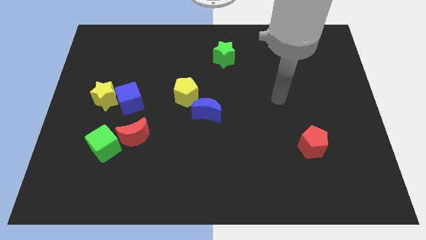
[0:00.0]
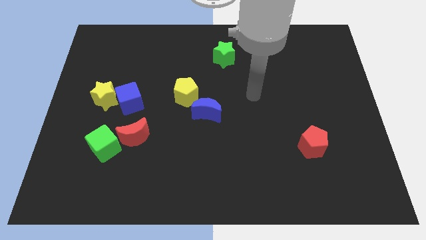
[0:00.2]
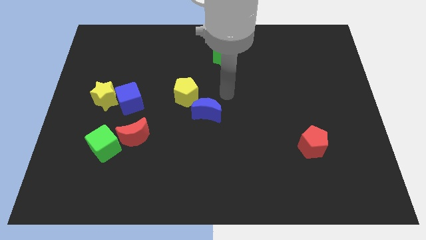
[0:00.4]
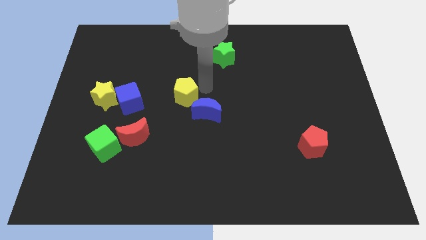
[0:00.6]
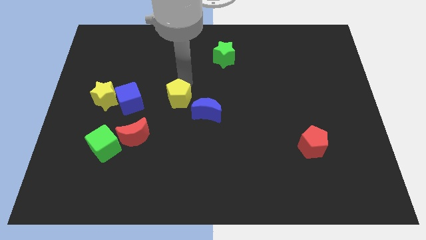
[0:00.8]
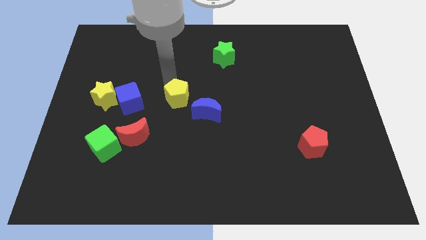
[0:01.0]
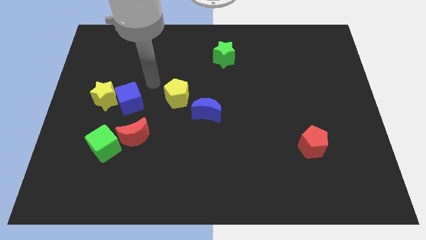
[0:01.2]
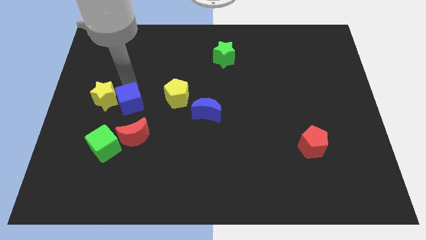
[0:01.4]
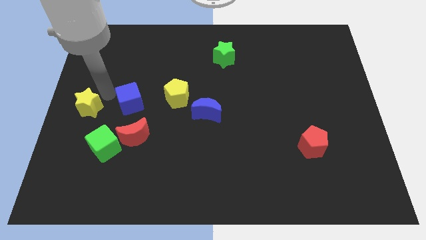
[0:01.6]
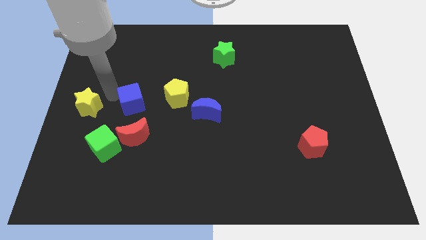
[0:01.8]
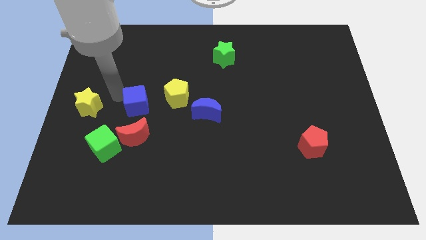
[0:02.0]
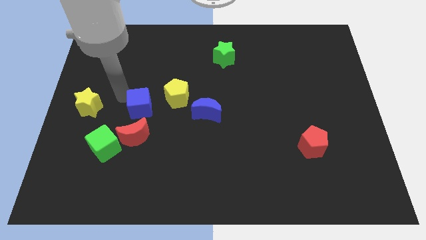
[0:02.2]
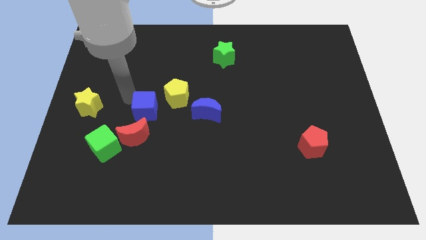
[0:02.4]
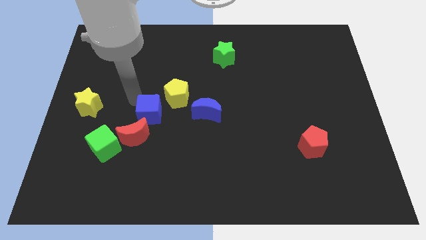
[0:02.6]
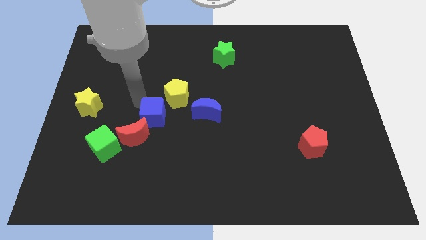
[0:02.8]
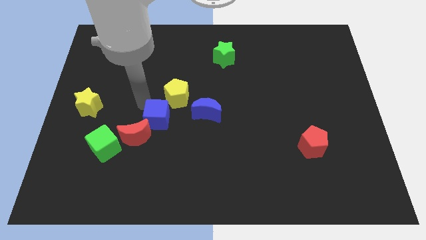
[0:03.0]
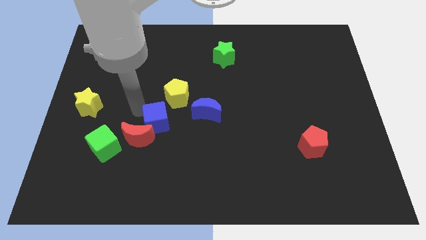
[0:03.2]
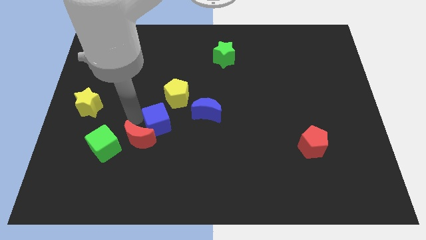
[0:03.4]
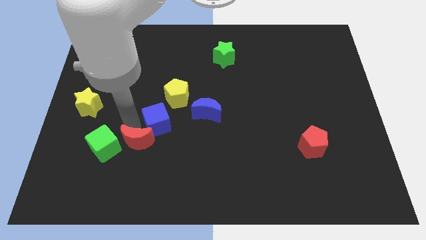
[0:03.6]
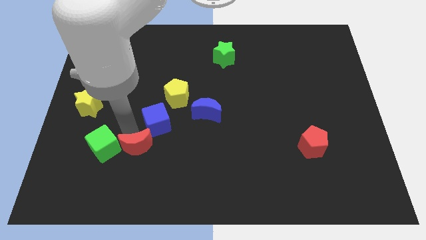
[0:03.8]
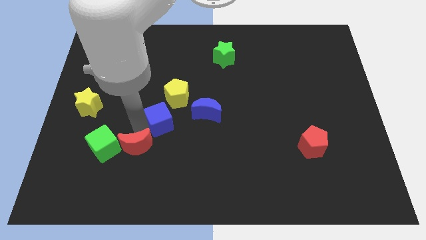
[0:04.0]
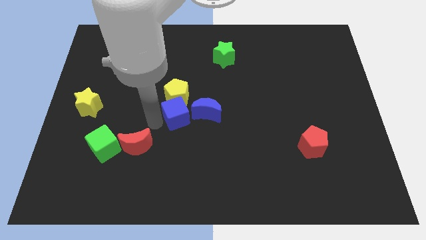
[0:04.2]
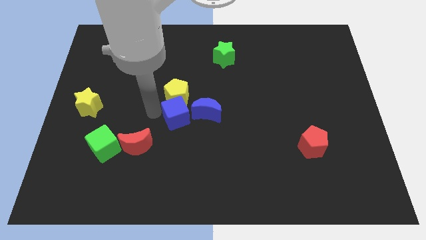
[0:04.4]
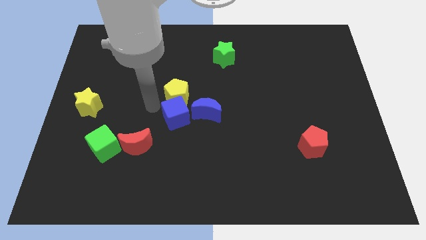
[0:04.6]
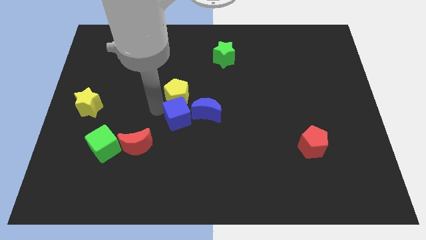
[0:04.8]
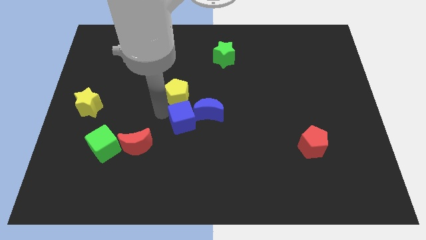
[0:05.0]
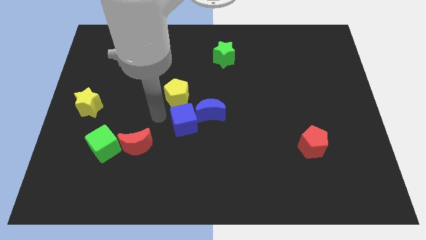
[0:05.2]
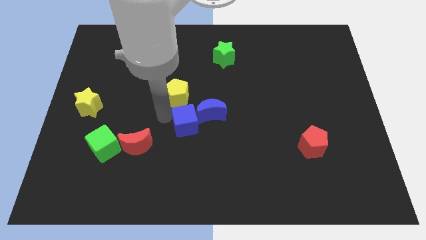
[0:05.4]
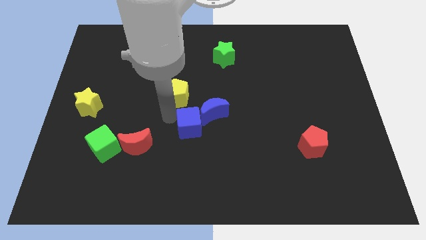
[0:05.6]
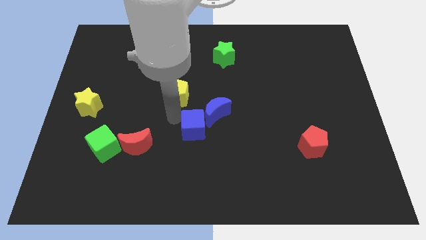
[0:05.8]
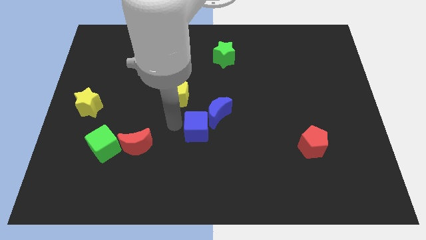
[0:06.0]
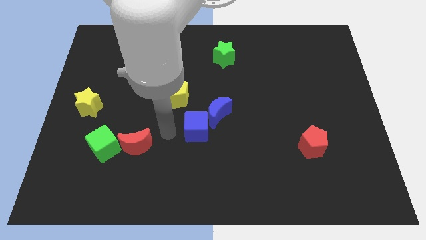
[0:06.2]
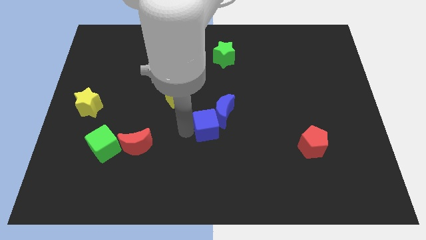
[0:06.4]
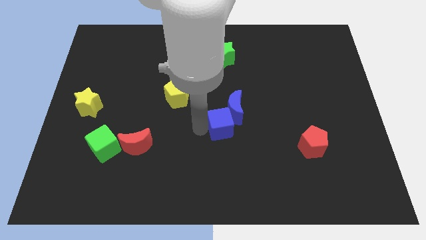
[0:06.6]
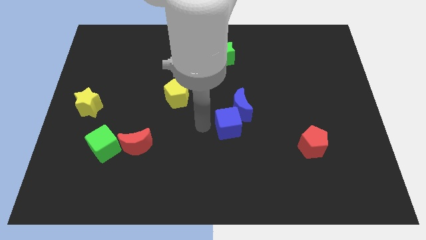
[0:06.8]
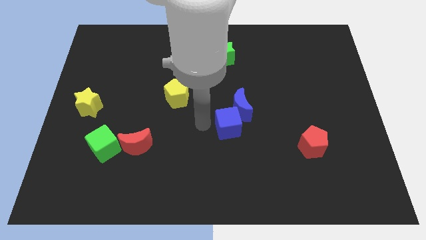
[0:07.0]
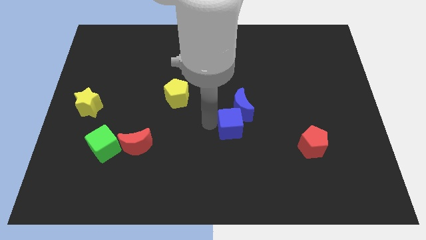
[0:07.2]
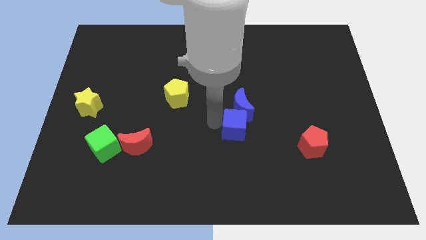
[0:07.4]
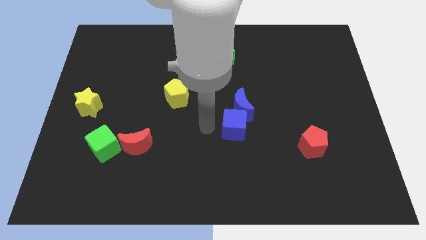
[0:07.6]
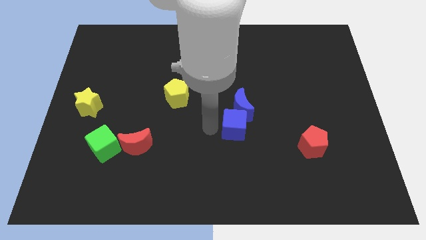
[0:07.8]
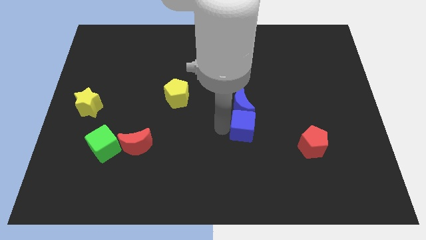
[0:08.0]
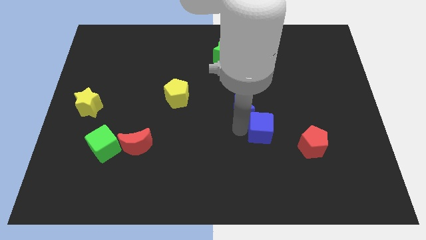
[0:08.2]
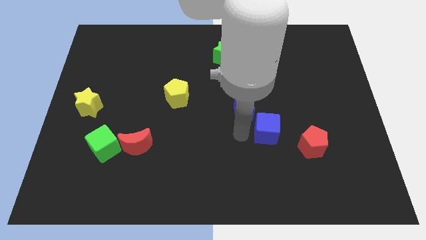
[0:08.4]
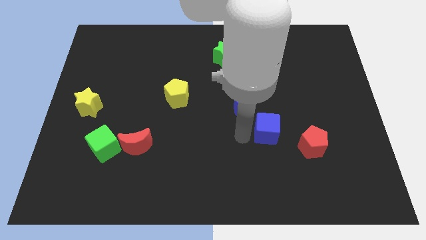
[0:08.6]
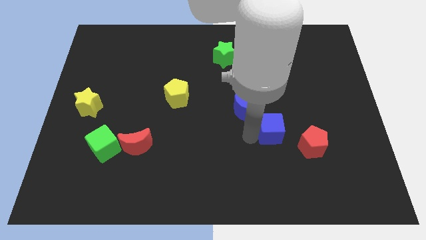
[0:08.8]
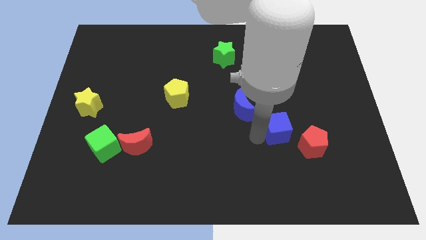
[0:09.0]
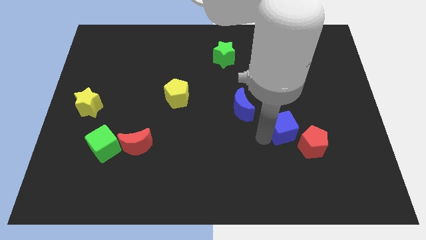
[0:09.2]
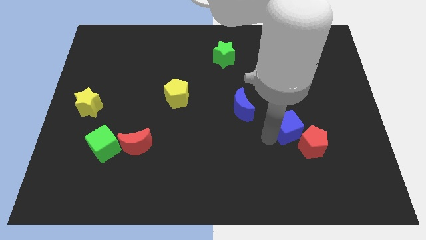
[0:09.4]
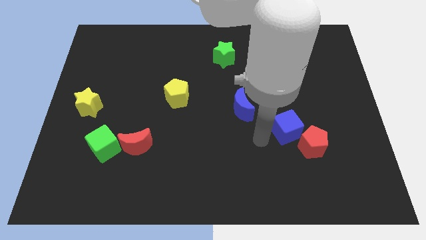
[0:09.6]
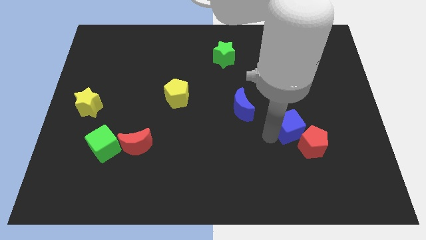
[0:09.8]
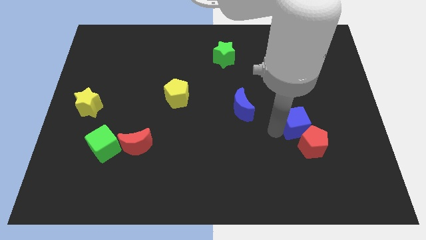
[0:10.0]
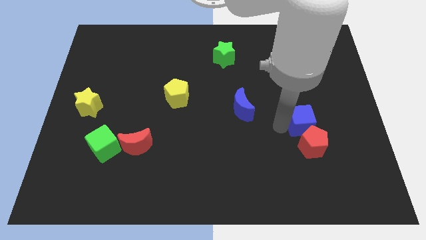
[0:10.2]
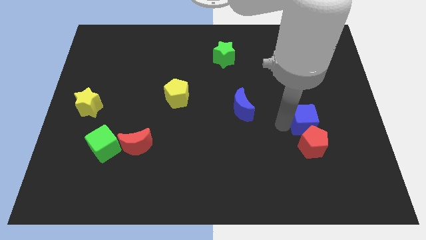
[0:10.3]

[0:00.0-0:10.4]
push the blue cube to the top right side of the red pentagon

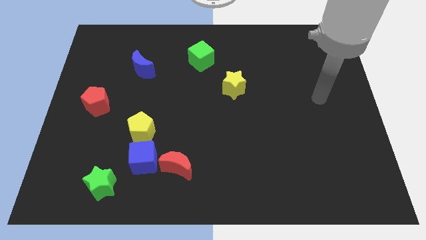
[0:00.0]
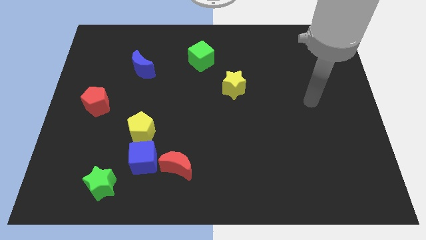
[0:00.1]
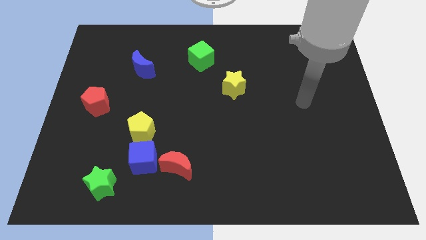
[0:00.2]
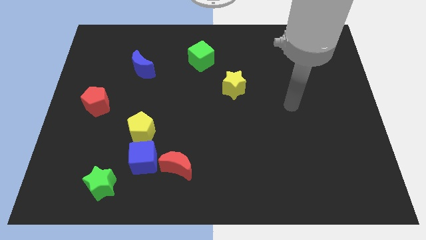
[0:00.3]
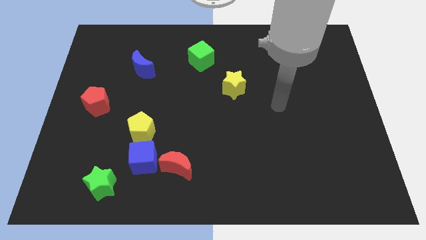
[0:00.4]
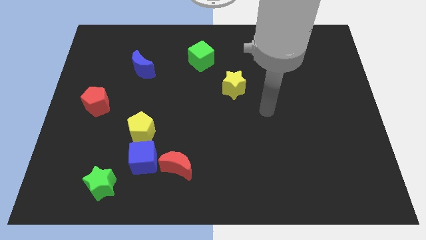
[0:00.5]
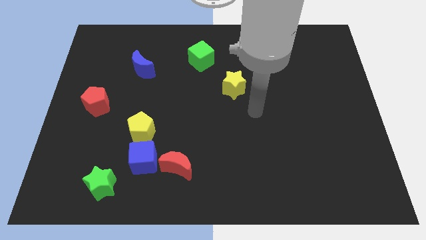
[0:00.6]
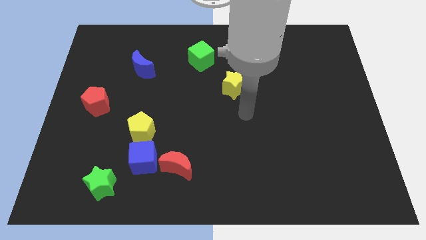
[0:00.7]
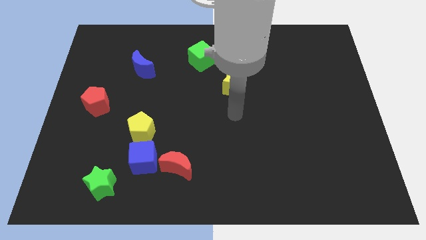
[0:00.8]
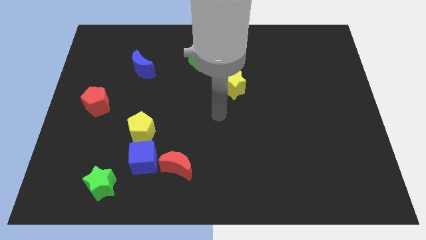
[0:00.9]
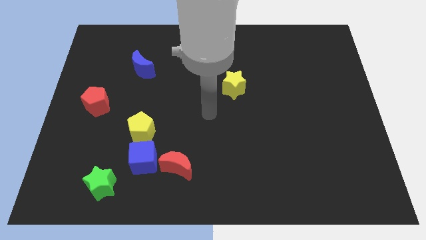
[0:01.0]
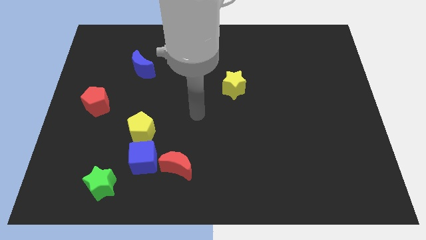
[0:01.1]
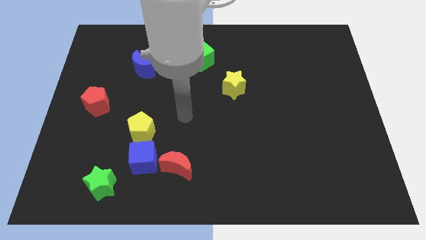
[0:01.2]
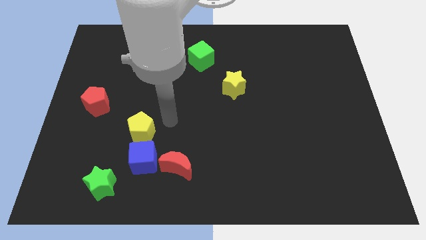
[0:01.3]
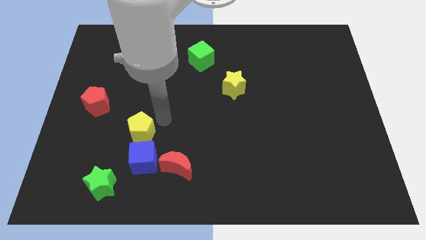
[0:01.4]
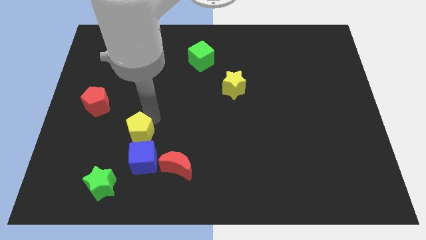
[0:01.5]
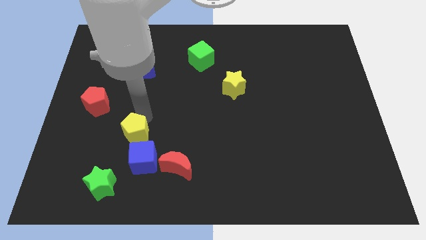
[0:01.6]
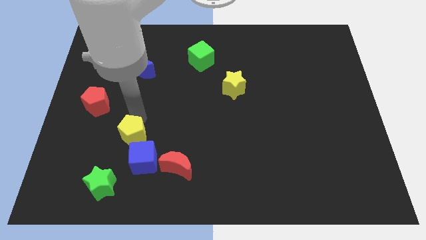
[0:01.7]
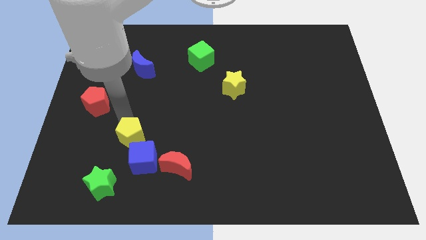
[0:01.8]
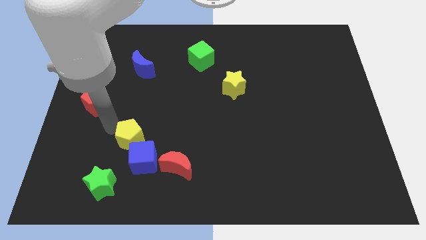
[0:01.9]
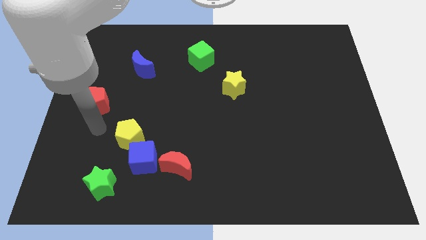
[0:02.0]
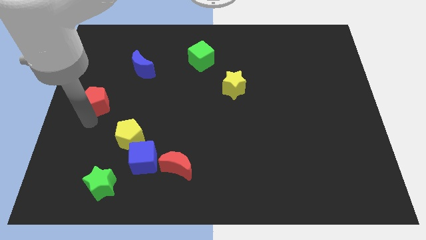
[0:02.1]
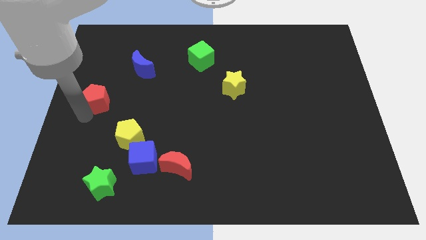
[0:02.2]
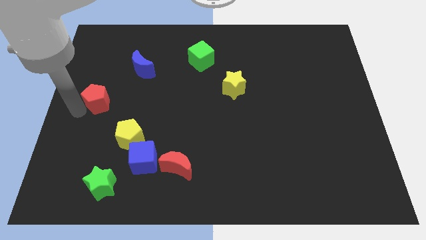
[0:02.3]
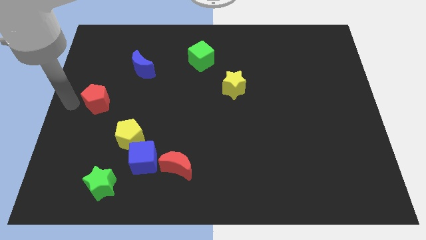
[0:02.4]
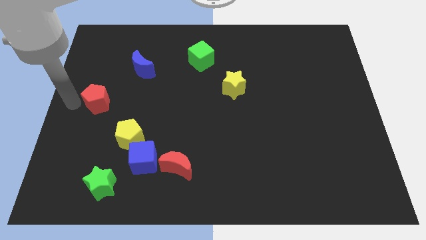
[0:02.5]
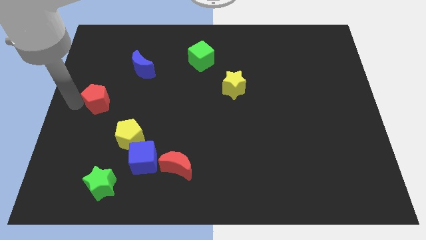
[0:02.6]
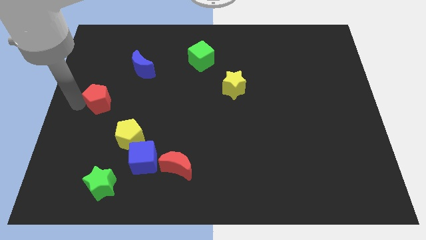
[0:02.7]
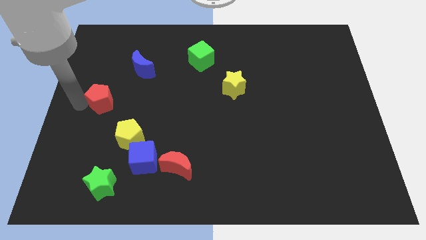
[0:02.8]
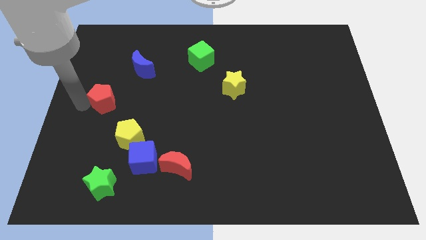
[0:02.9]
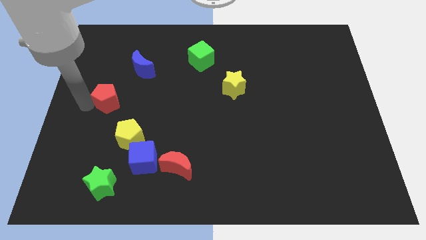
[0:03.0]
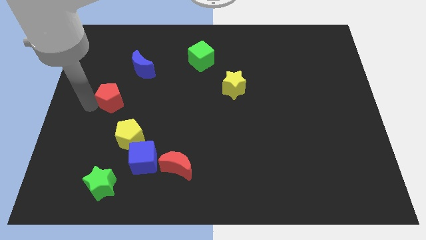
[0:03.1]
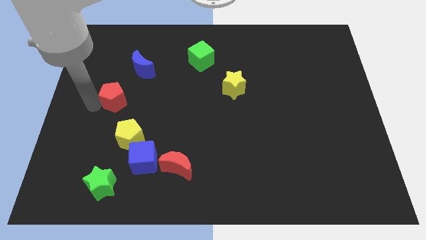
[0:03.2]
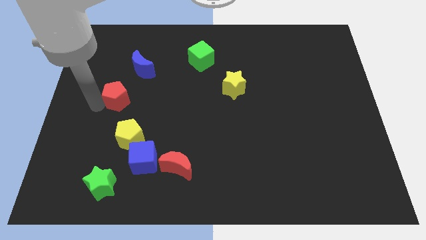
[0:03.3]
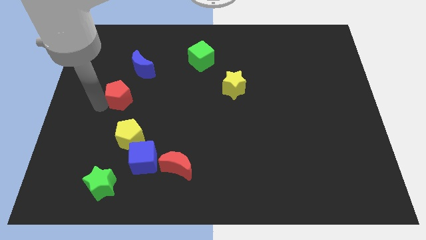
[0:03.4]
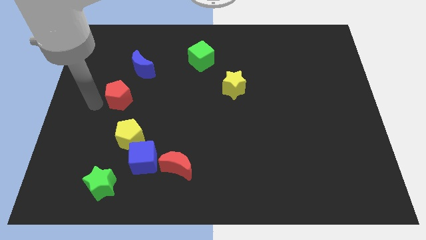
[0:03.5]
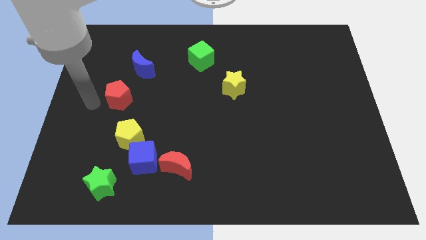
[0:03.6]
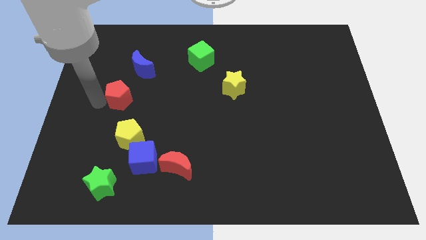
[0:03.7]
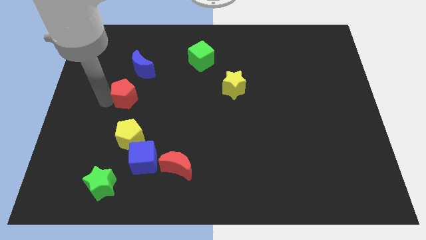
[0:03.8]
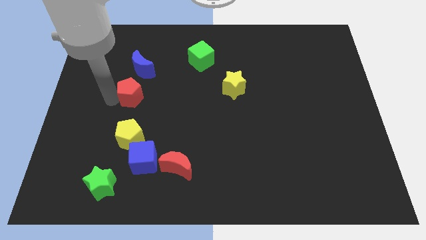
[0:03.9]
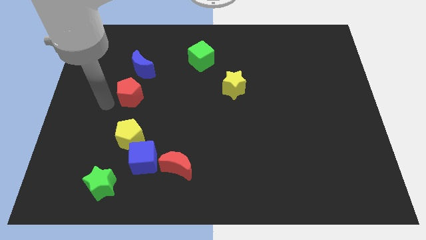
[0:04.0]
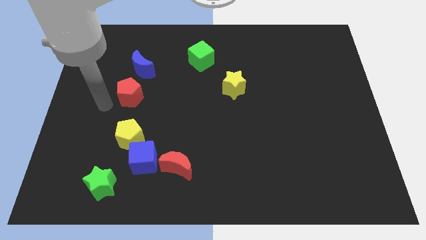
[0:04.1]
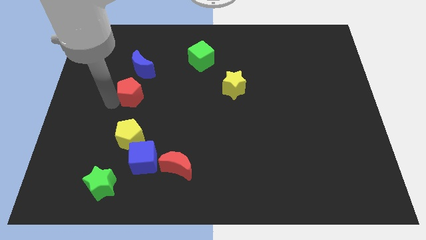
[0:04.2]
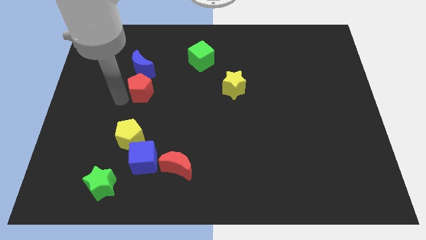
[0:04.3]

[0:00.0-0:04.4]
slide the red pentagon diagonally down and to the right of the blue moon
